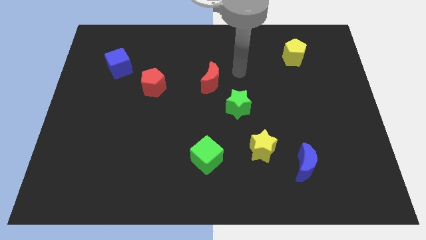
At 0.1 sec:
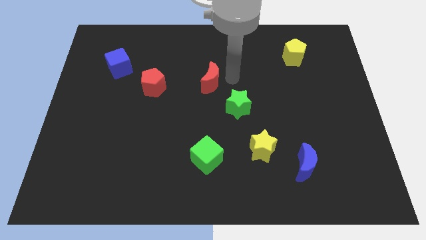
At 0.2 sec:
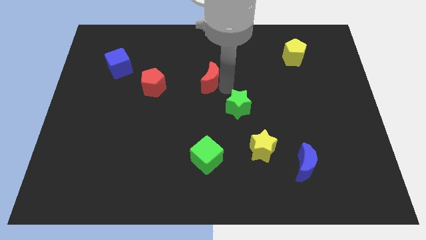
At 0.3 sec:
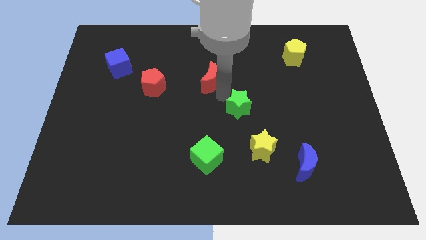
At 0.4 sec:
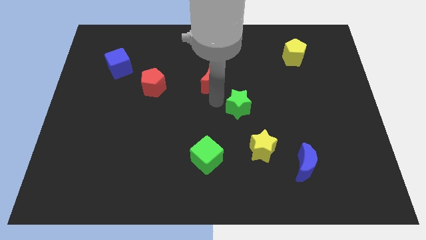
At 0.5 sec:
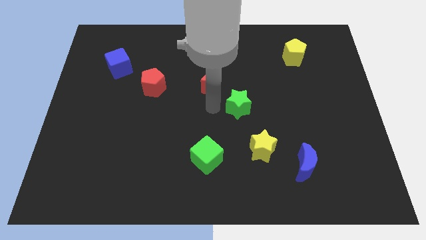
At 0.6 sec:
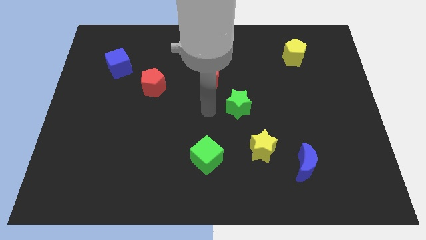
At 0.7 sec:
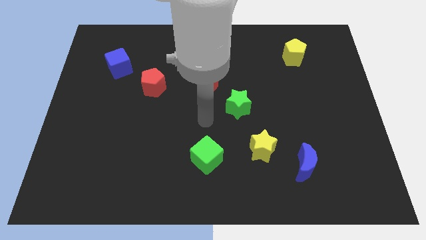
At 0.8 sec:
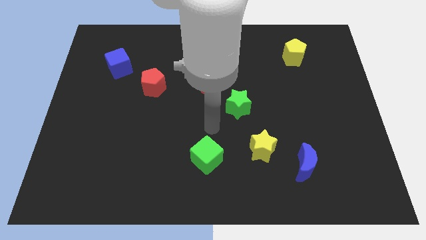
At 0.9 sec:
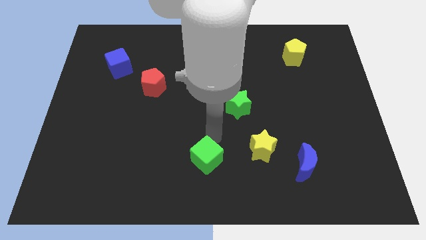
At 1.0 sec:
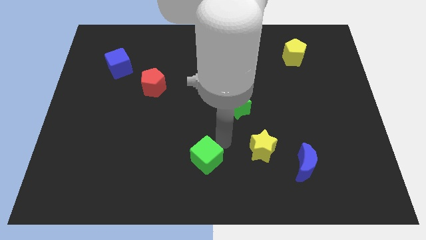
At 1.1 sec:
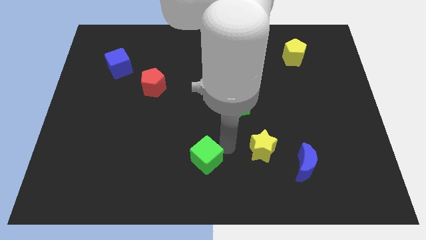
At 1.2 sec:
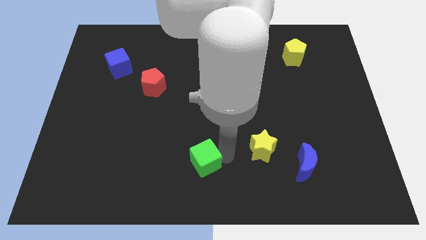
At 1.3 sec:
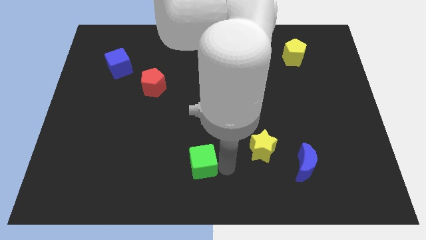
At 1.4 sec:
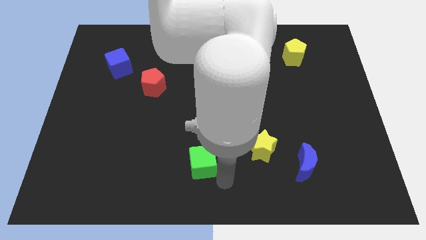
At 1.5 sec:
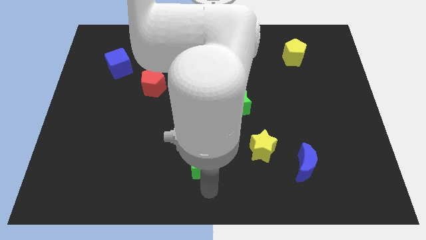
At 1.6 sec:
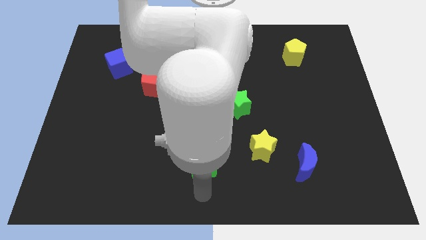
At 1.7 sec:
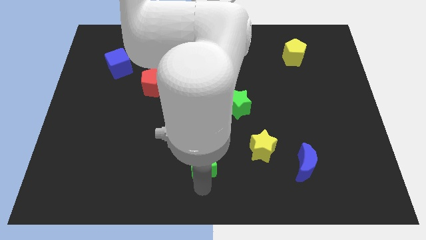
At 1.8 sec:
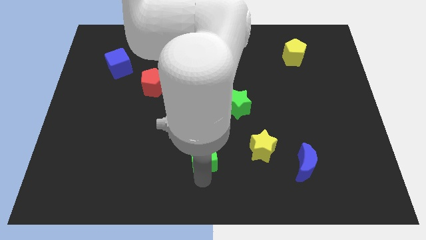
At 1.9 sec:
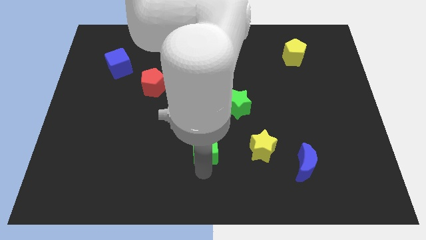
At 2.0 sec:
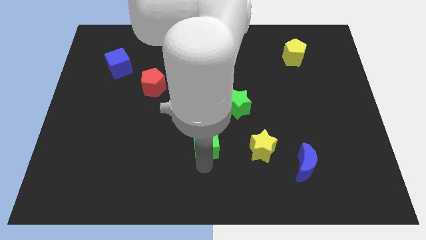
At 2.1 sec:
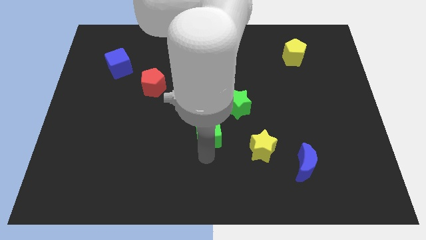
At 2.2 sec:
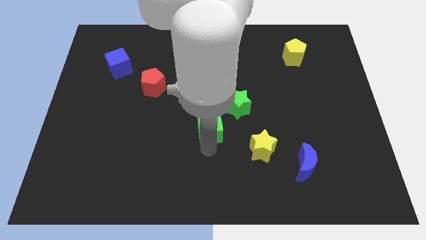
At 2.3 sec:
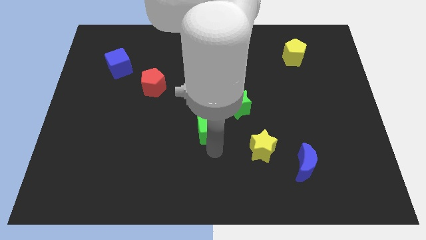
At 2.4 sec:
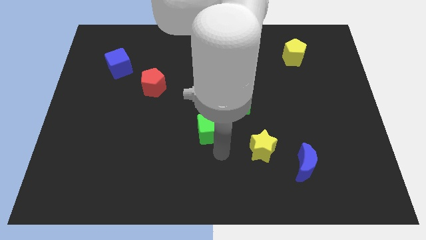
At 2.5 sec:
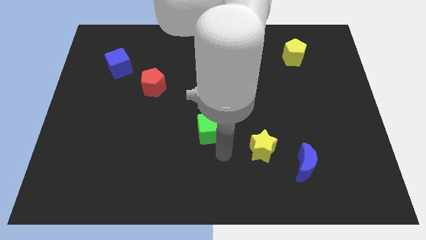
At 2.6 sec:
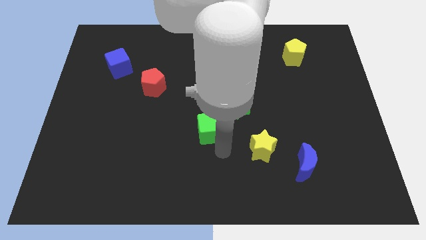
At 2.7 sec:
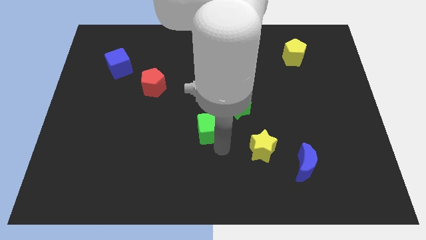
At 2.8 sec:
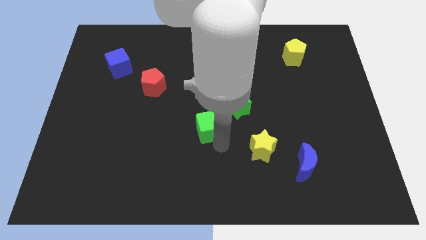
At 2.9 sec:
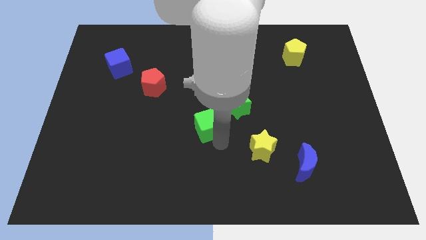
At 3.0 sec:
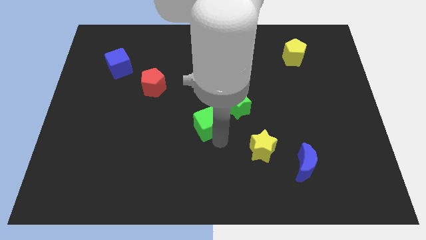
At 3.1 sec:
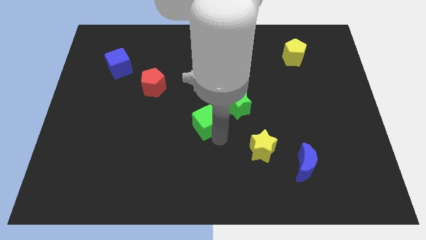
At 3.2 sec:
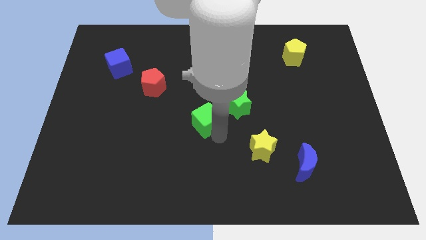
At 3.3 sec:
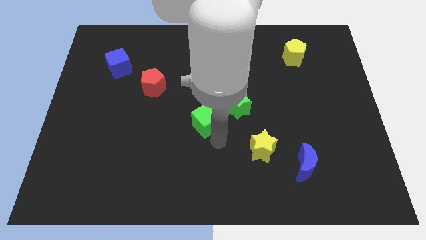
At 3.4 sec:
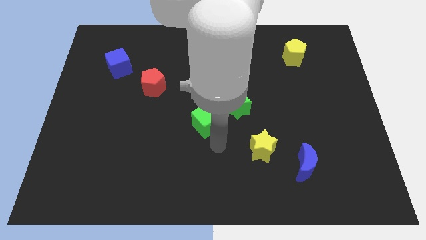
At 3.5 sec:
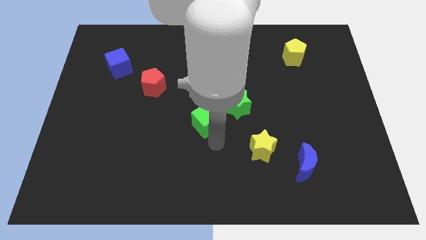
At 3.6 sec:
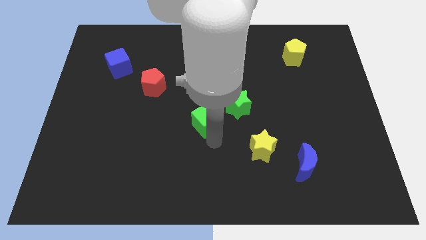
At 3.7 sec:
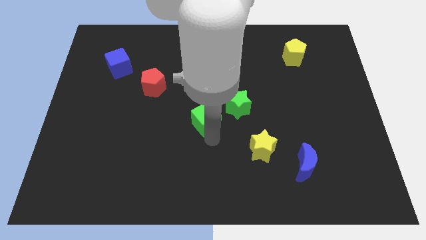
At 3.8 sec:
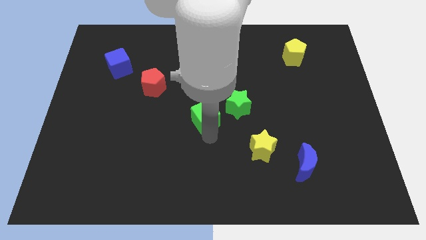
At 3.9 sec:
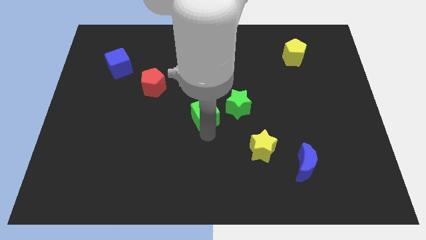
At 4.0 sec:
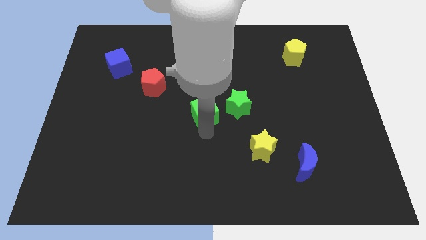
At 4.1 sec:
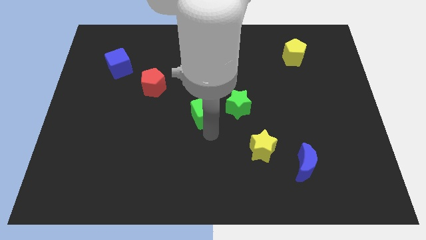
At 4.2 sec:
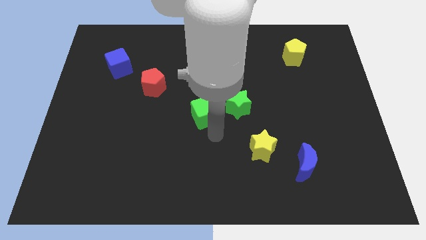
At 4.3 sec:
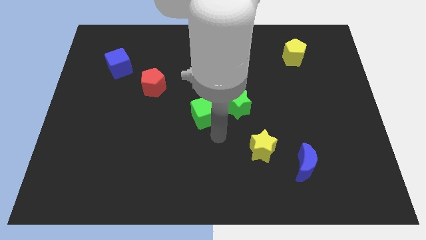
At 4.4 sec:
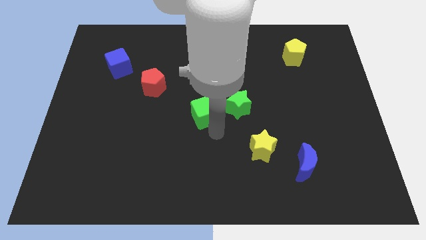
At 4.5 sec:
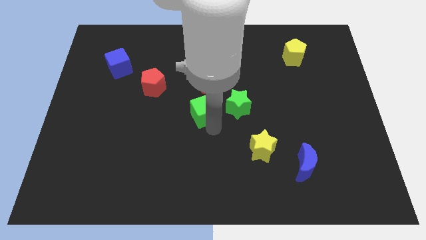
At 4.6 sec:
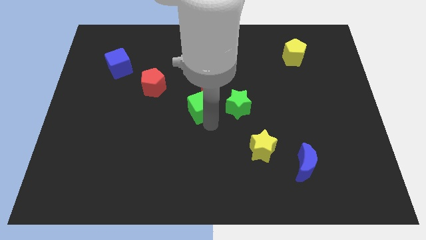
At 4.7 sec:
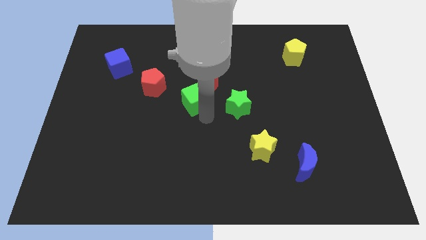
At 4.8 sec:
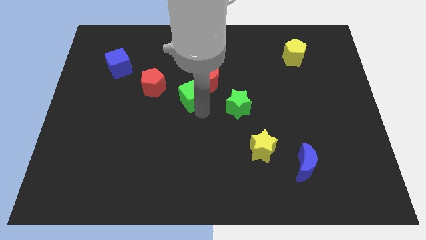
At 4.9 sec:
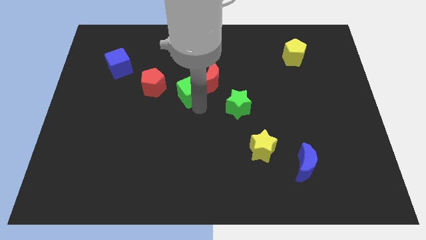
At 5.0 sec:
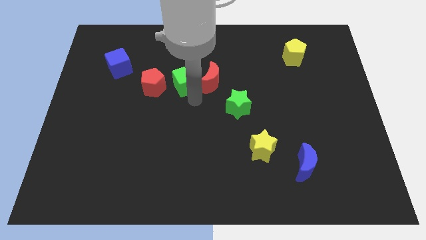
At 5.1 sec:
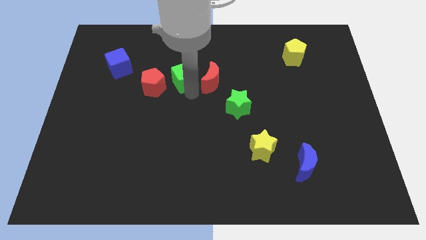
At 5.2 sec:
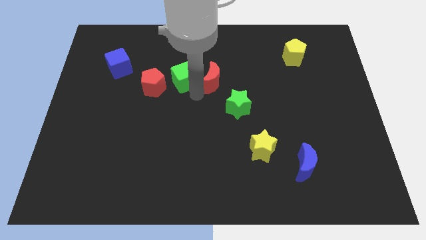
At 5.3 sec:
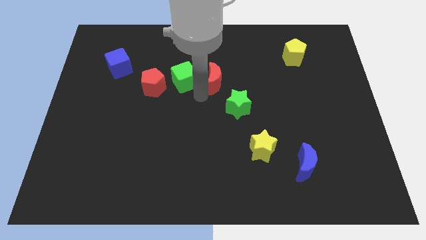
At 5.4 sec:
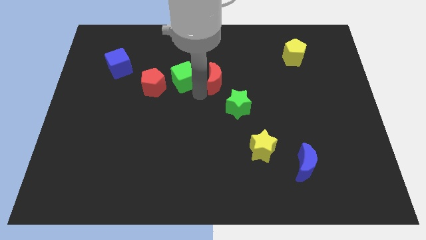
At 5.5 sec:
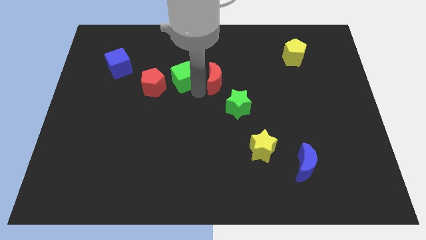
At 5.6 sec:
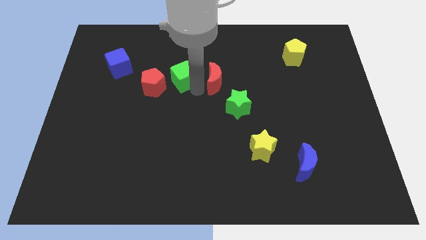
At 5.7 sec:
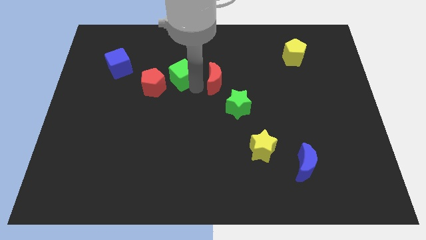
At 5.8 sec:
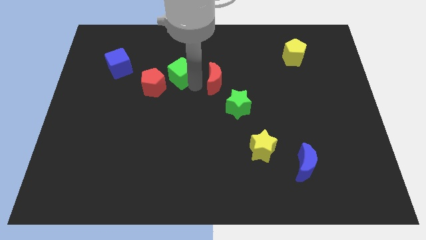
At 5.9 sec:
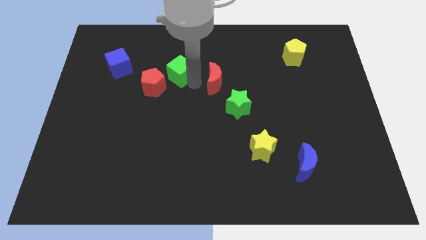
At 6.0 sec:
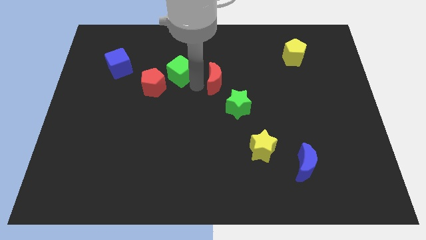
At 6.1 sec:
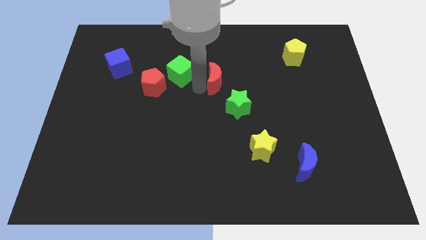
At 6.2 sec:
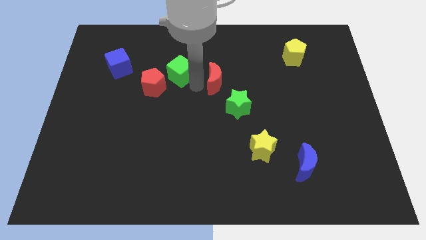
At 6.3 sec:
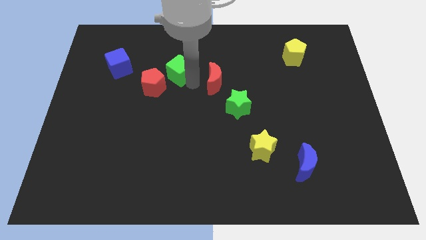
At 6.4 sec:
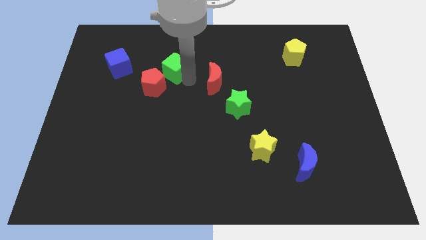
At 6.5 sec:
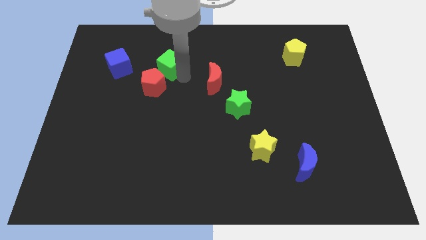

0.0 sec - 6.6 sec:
put the green cube above the red pentagon

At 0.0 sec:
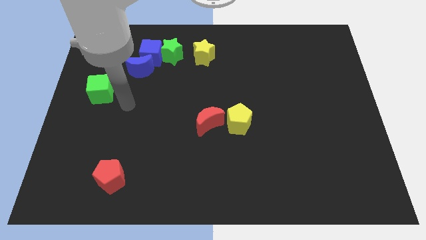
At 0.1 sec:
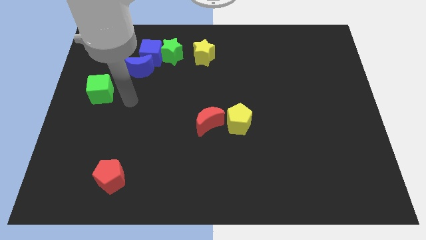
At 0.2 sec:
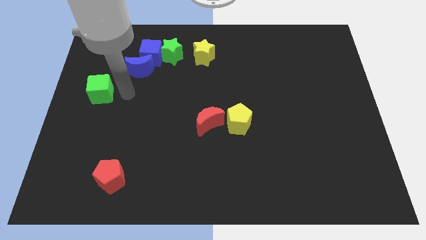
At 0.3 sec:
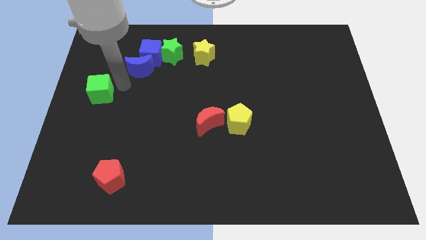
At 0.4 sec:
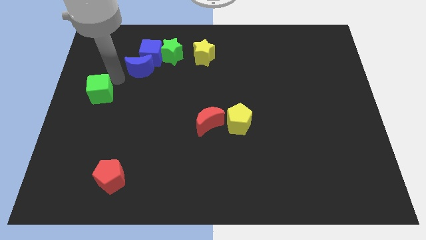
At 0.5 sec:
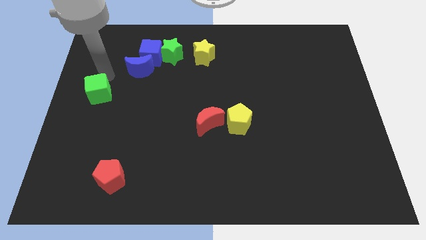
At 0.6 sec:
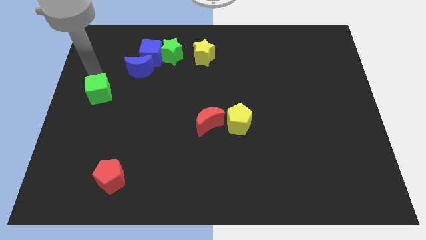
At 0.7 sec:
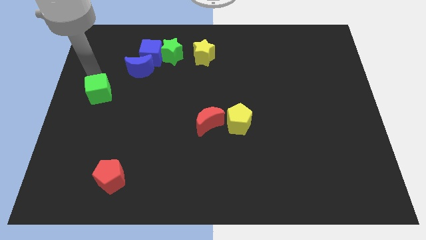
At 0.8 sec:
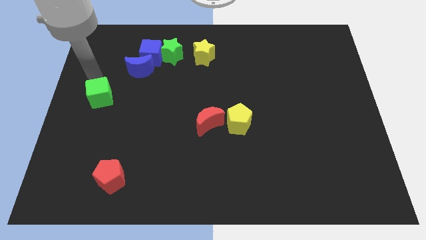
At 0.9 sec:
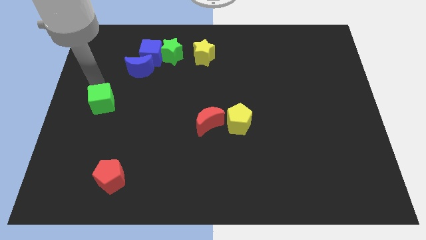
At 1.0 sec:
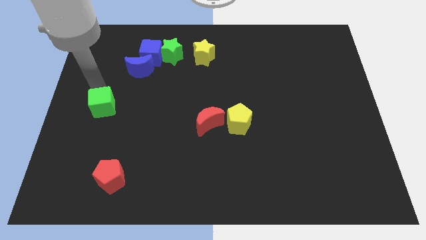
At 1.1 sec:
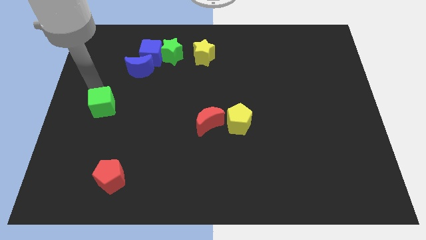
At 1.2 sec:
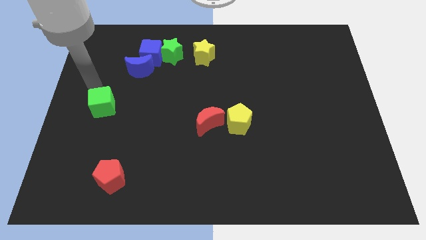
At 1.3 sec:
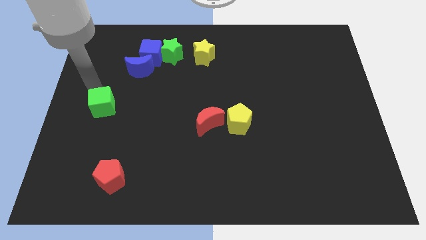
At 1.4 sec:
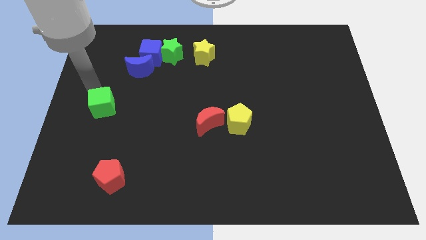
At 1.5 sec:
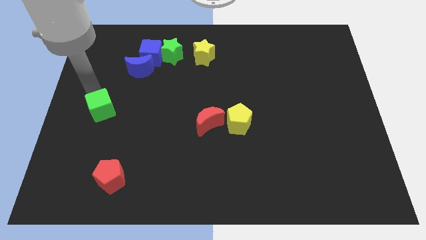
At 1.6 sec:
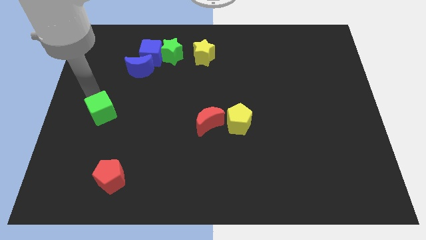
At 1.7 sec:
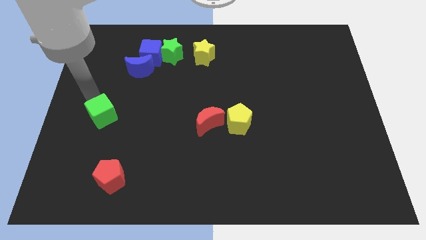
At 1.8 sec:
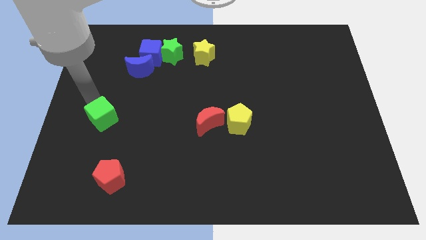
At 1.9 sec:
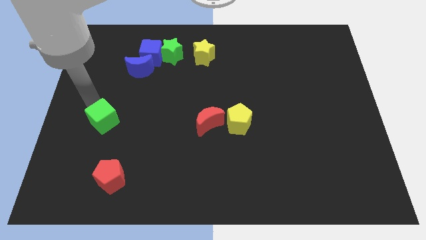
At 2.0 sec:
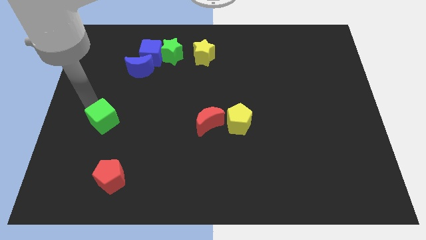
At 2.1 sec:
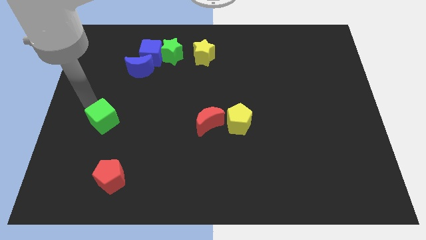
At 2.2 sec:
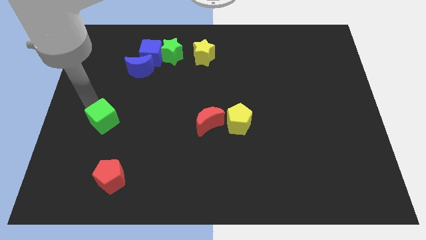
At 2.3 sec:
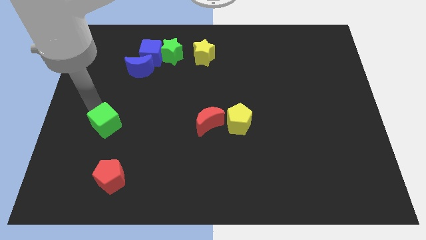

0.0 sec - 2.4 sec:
slide the green cube to the top side of the red pentagon
